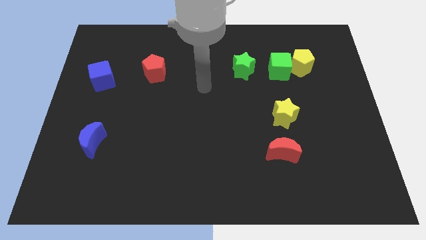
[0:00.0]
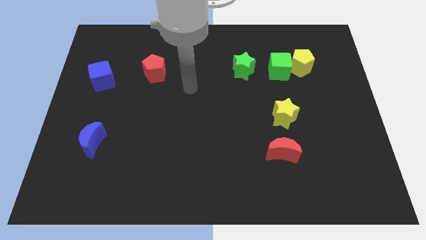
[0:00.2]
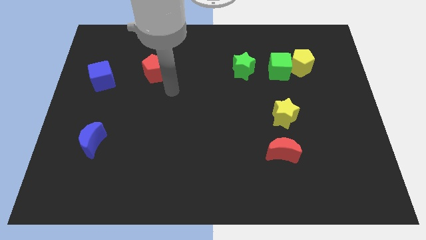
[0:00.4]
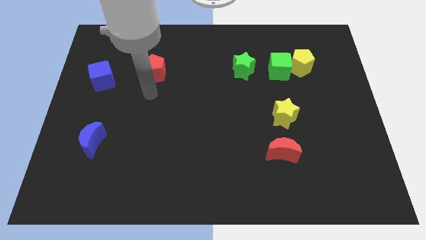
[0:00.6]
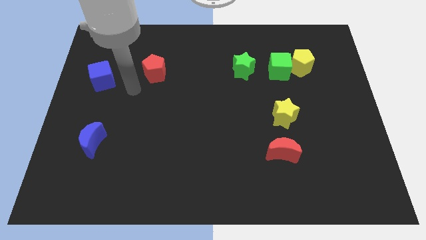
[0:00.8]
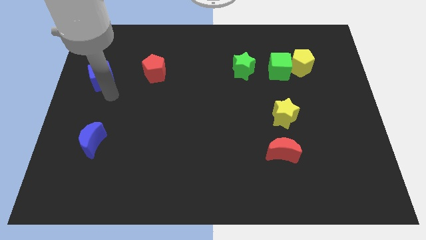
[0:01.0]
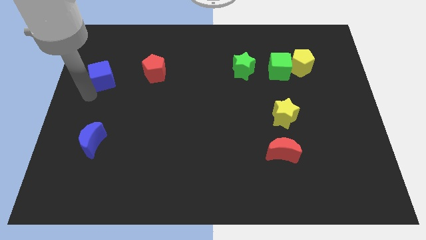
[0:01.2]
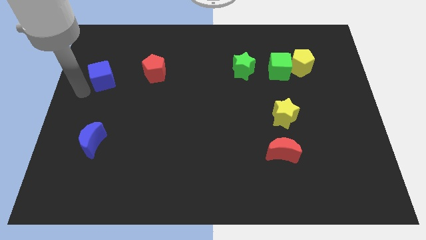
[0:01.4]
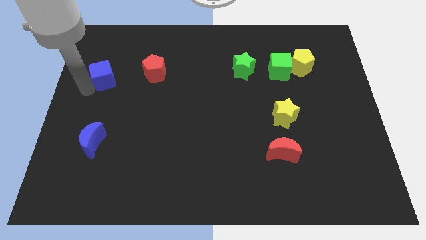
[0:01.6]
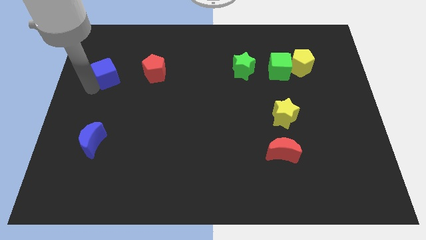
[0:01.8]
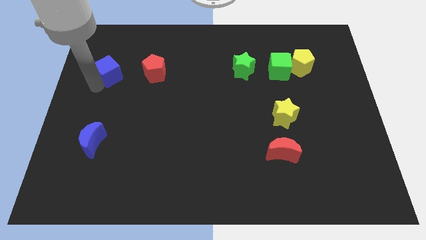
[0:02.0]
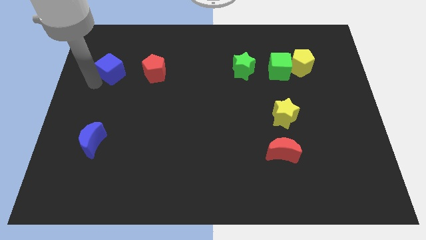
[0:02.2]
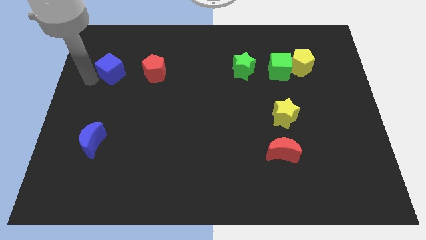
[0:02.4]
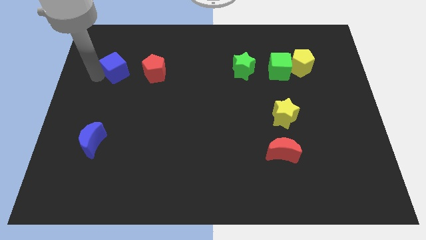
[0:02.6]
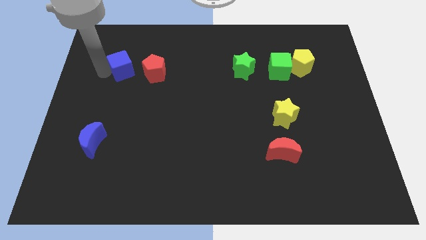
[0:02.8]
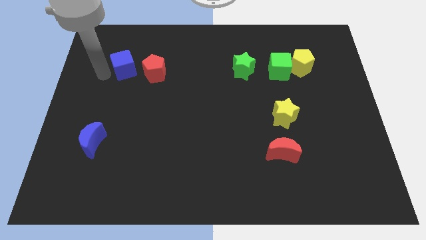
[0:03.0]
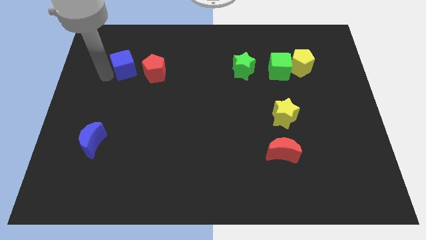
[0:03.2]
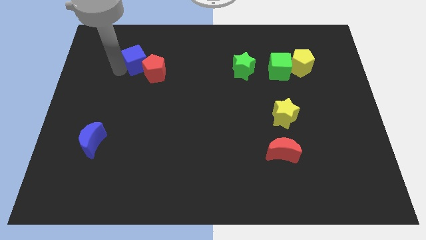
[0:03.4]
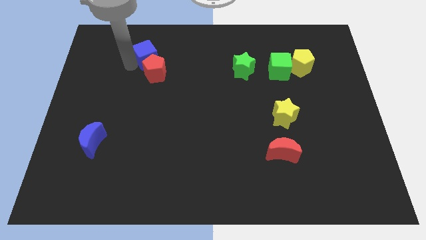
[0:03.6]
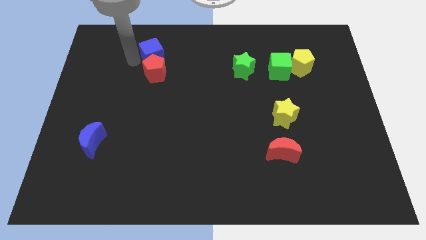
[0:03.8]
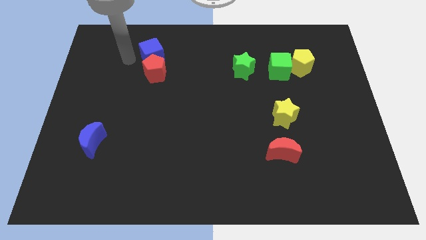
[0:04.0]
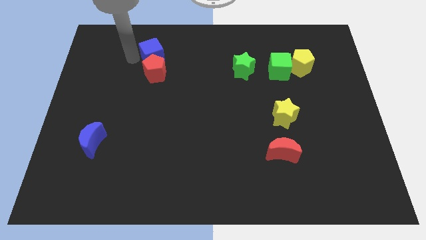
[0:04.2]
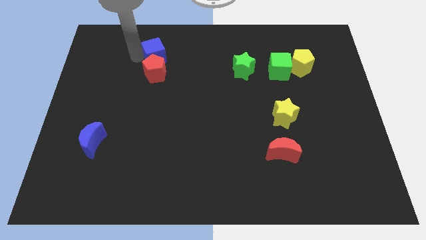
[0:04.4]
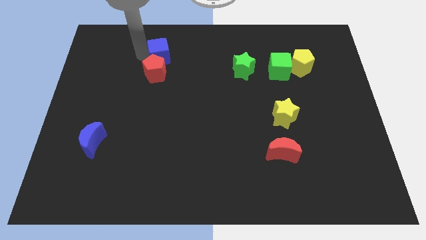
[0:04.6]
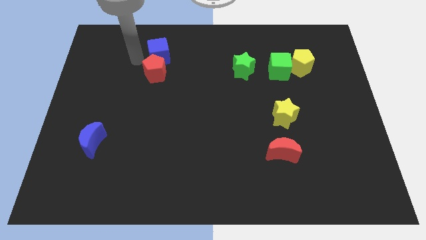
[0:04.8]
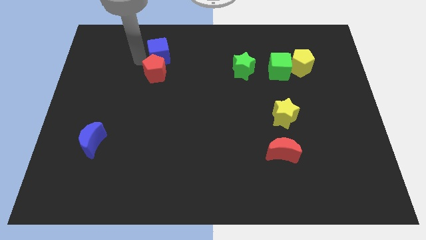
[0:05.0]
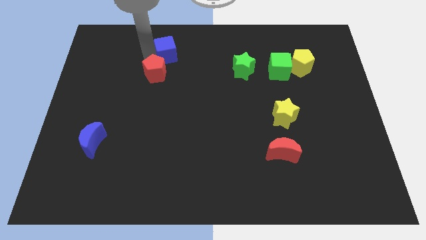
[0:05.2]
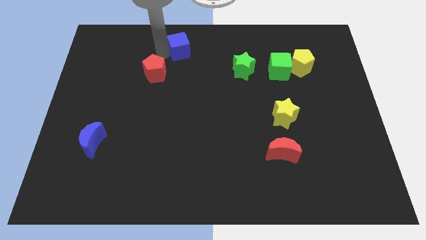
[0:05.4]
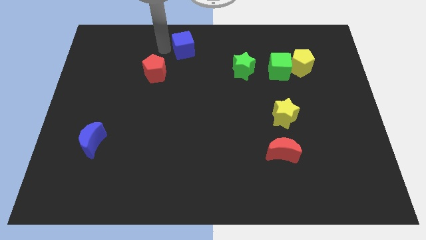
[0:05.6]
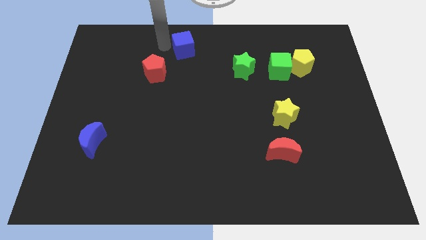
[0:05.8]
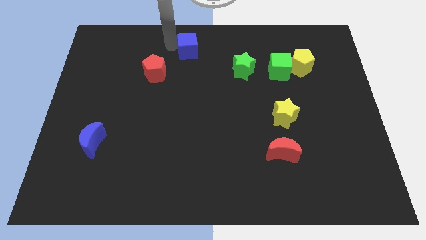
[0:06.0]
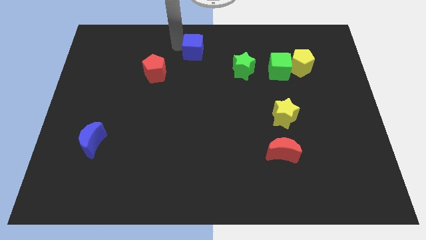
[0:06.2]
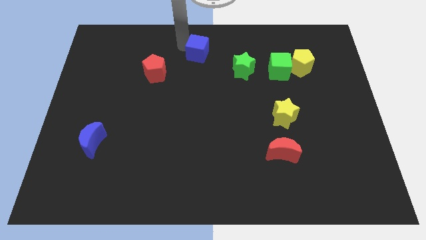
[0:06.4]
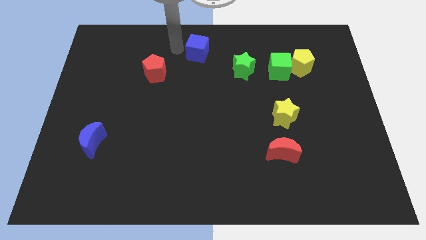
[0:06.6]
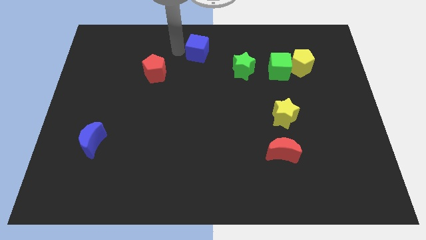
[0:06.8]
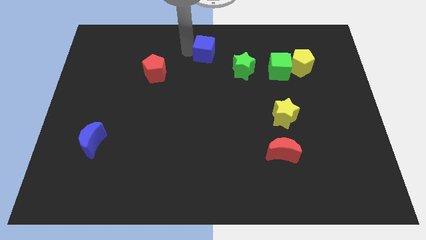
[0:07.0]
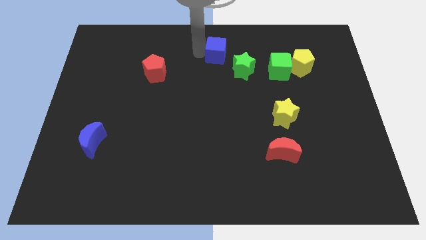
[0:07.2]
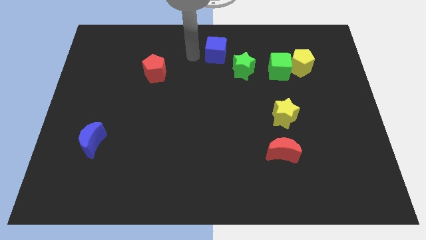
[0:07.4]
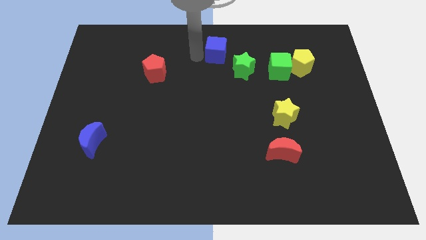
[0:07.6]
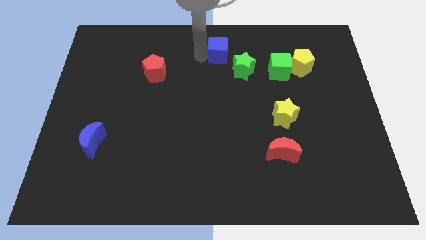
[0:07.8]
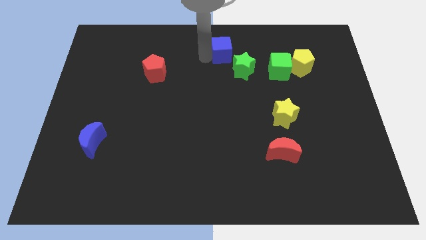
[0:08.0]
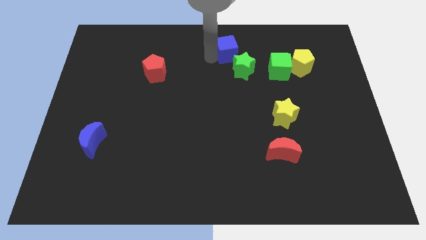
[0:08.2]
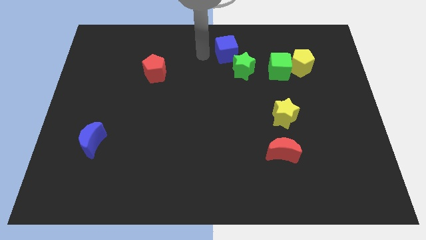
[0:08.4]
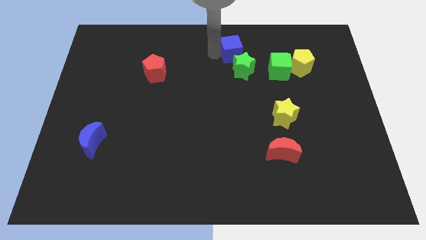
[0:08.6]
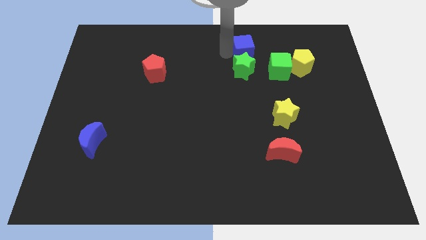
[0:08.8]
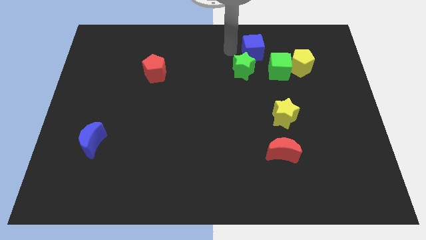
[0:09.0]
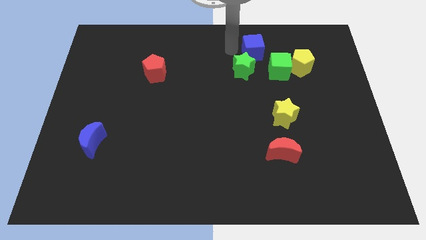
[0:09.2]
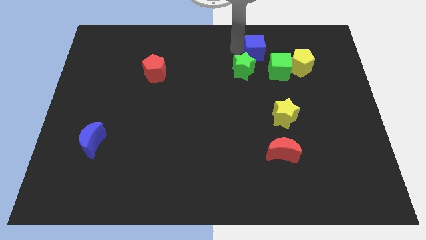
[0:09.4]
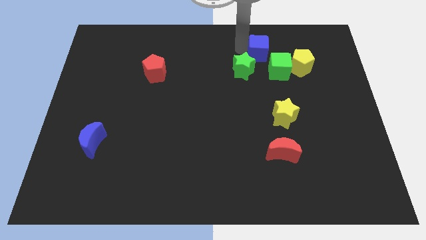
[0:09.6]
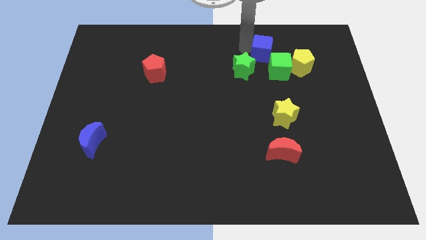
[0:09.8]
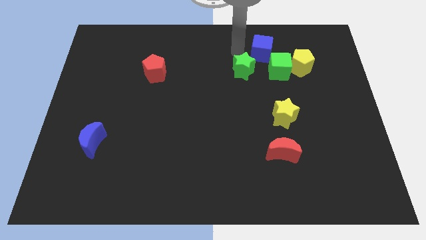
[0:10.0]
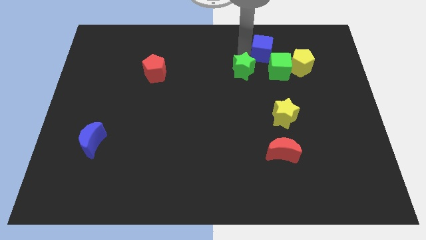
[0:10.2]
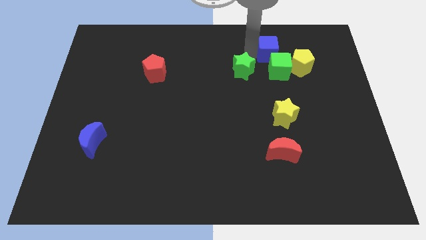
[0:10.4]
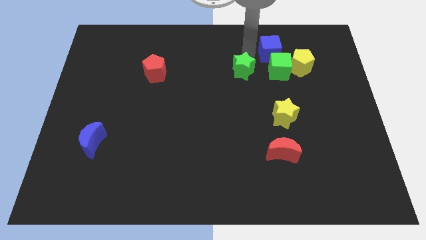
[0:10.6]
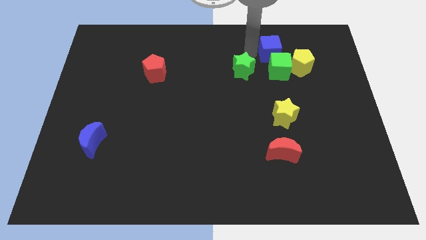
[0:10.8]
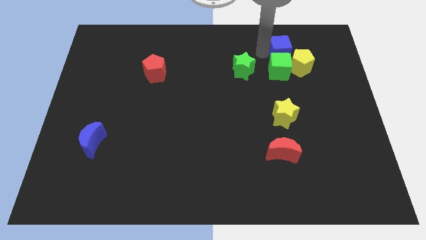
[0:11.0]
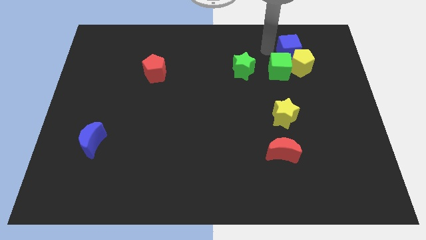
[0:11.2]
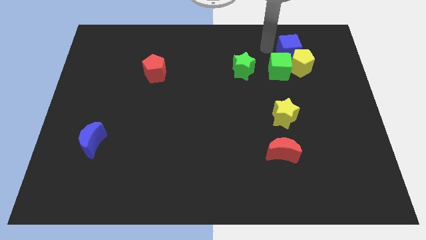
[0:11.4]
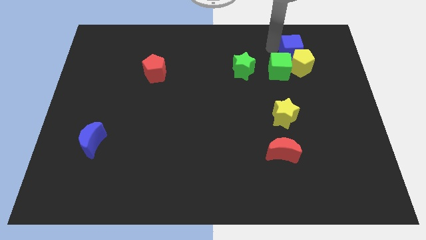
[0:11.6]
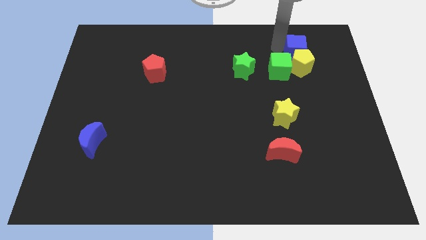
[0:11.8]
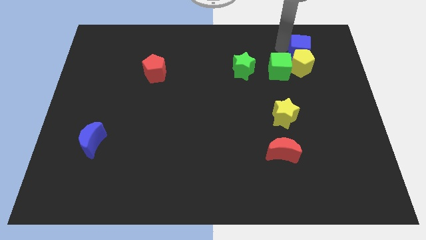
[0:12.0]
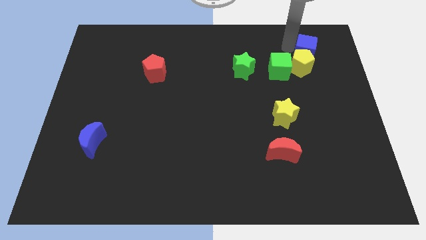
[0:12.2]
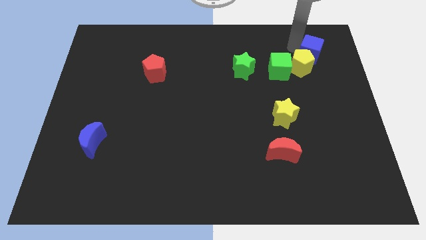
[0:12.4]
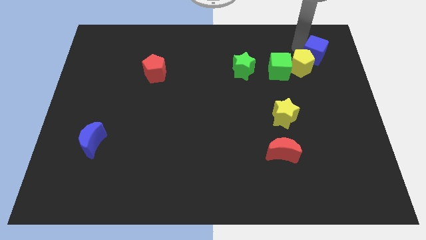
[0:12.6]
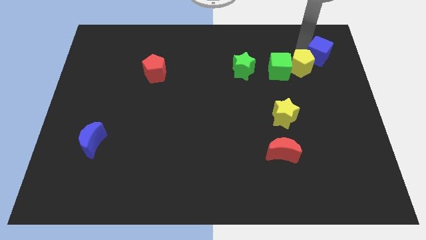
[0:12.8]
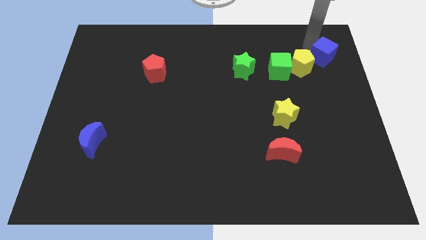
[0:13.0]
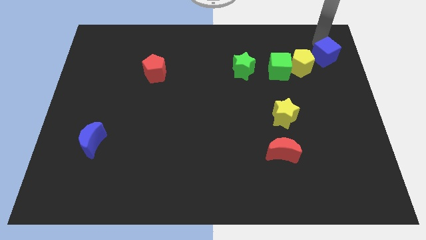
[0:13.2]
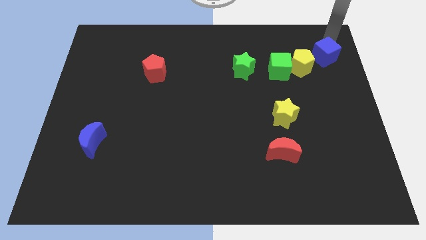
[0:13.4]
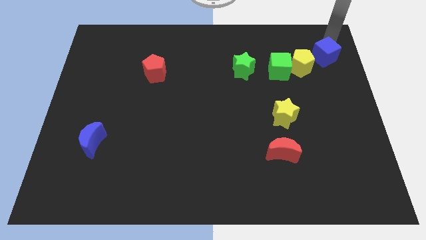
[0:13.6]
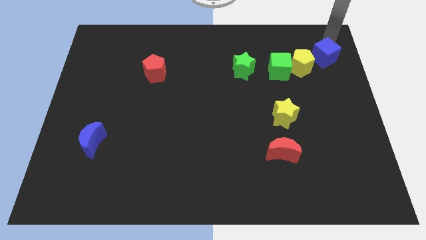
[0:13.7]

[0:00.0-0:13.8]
slide the blue cube to the right side of the green cube
